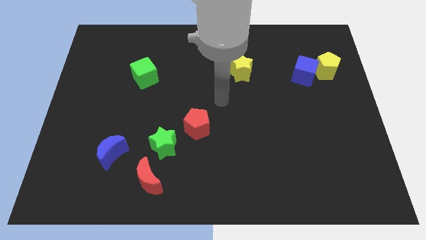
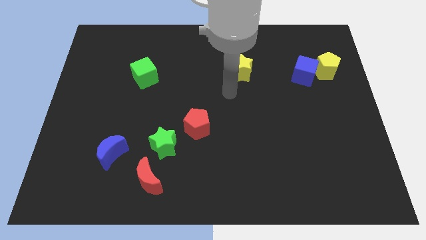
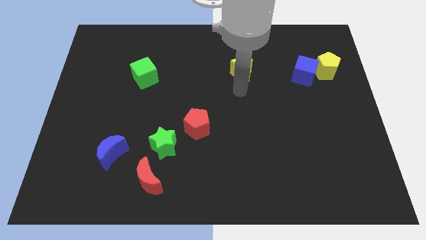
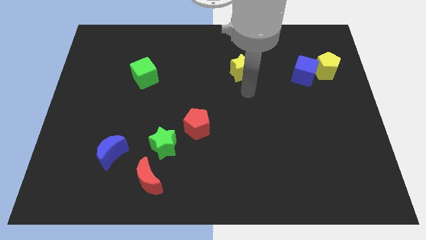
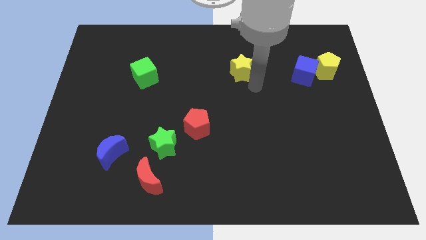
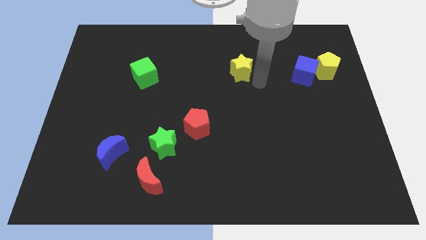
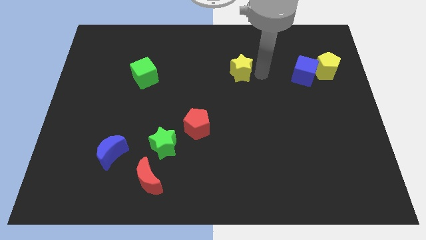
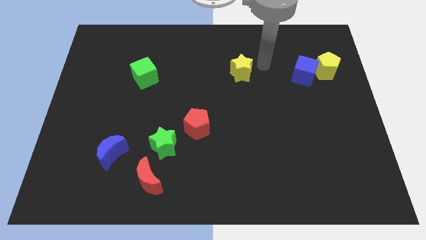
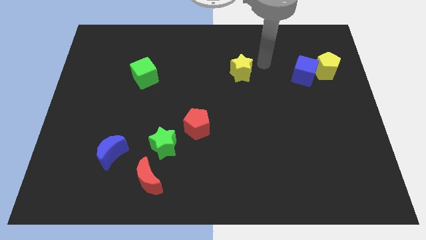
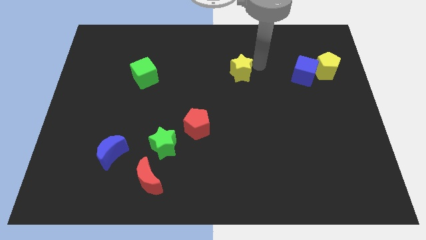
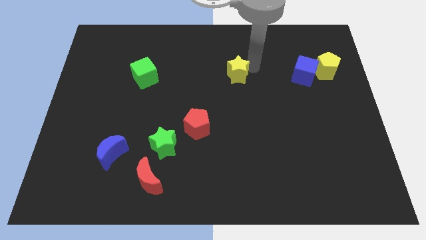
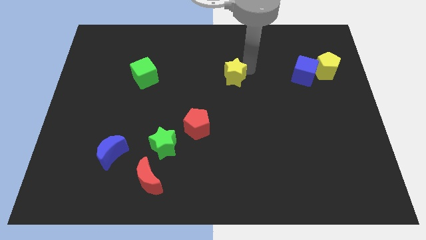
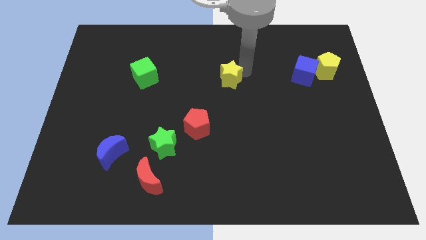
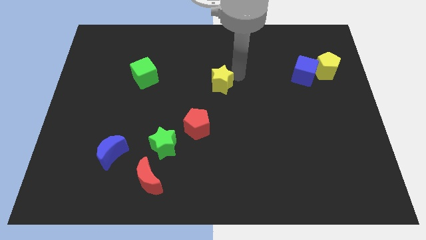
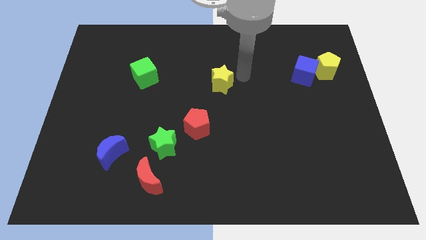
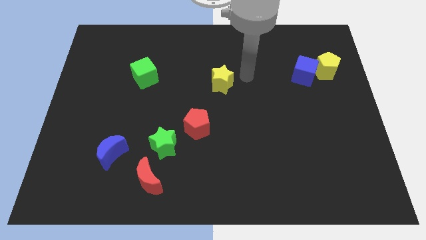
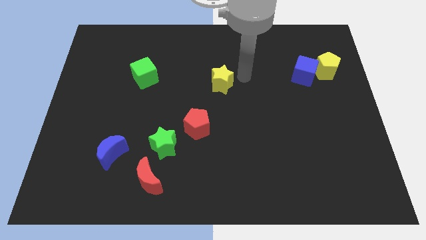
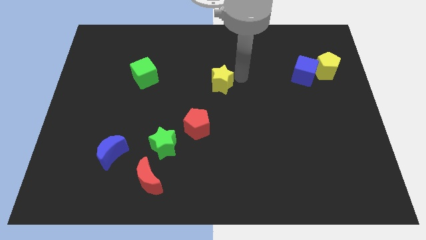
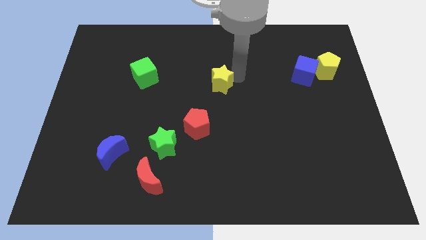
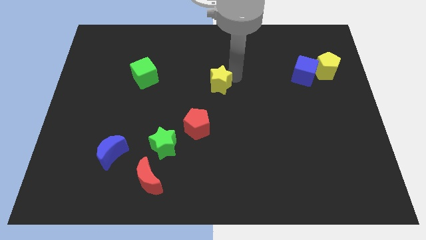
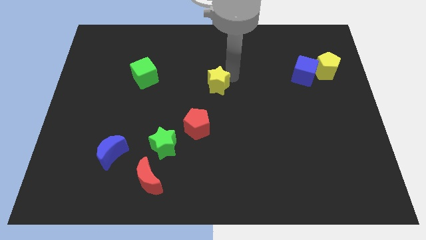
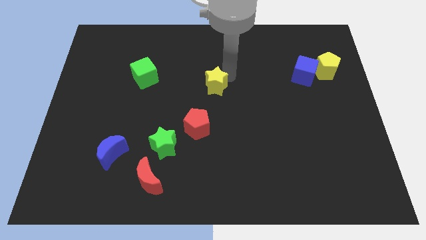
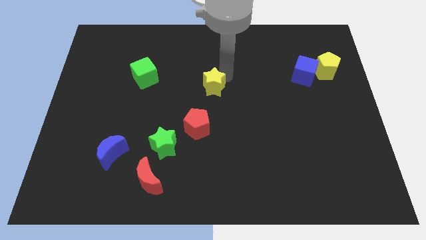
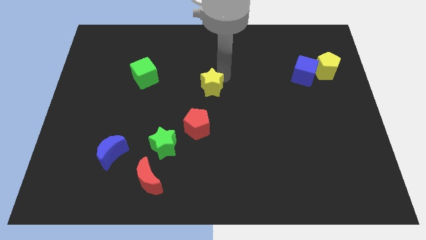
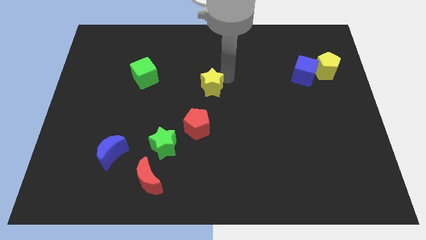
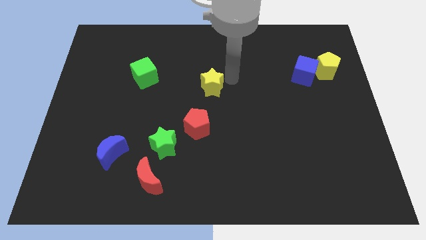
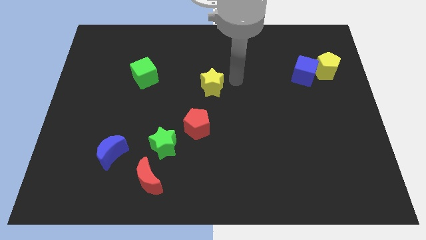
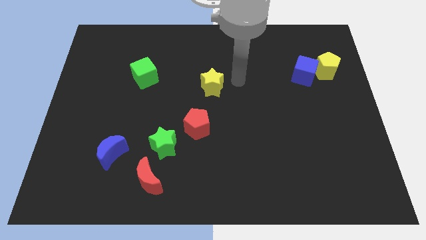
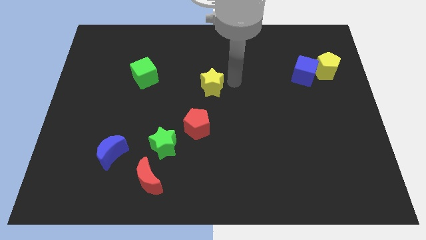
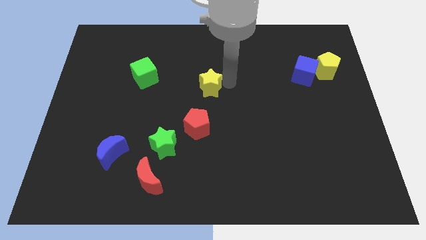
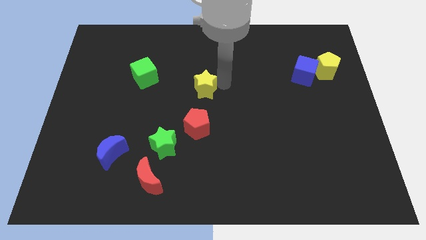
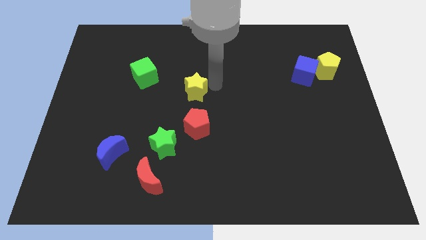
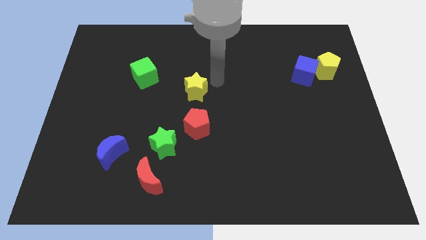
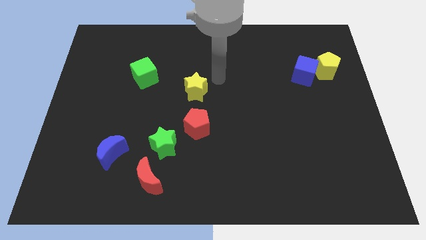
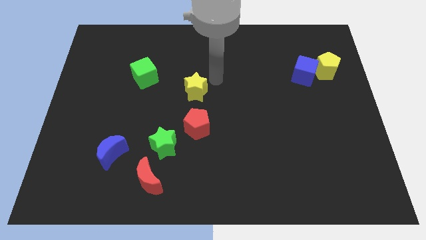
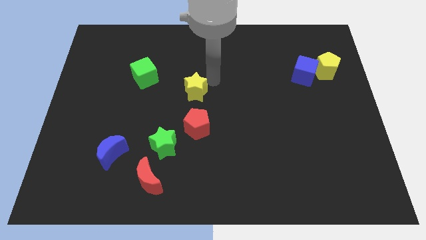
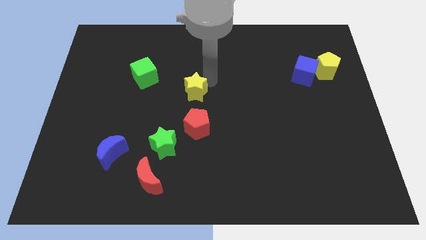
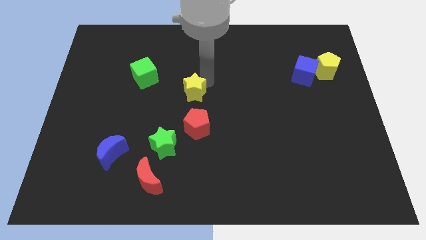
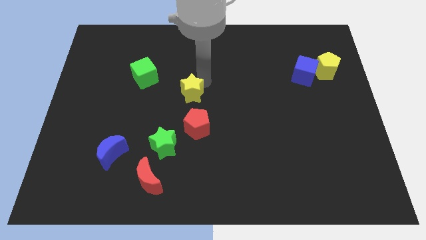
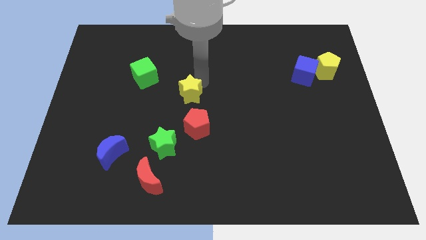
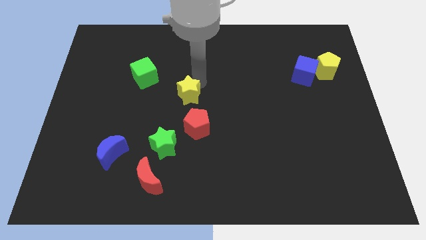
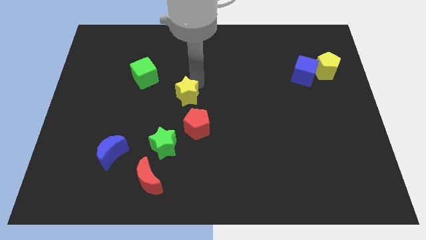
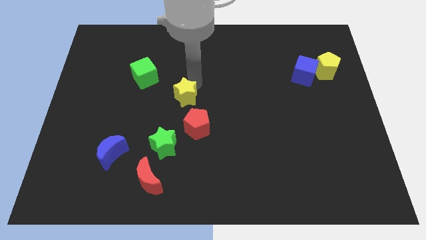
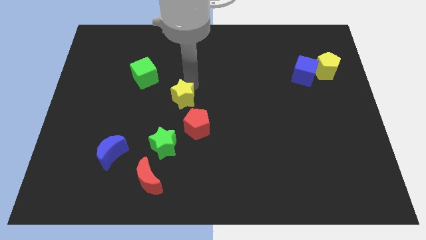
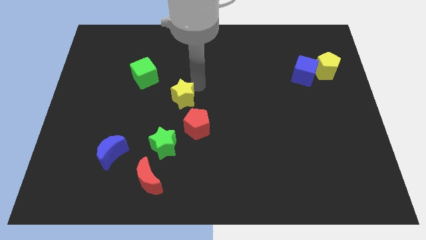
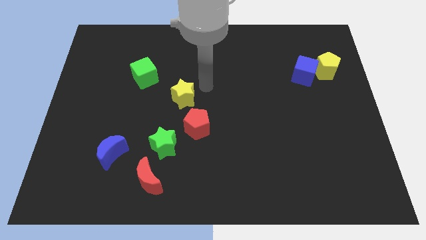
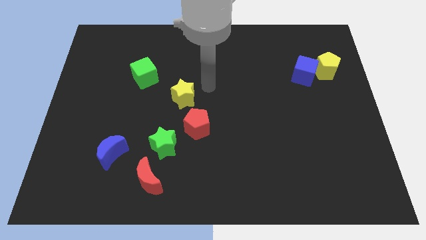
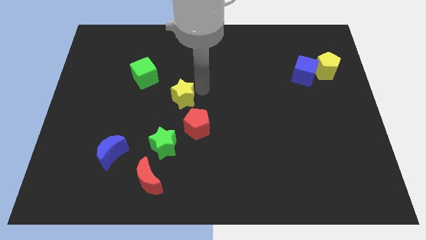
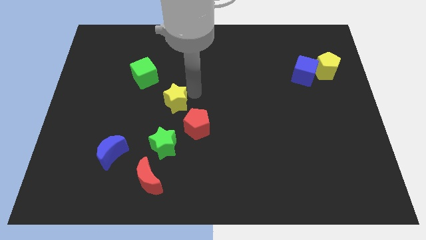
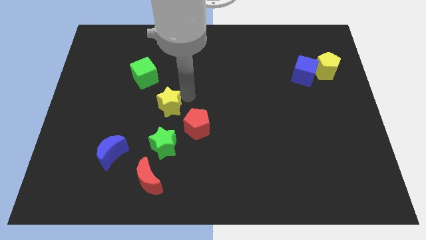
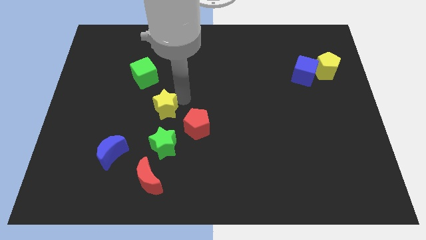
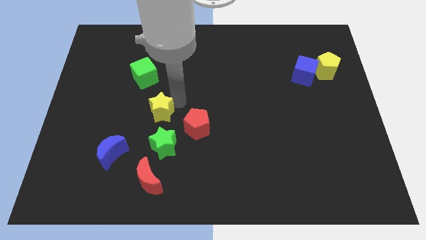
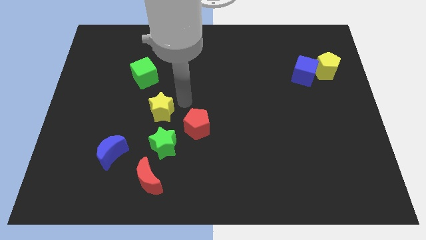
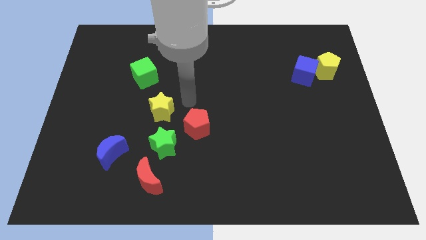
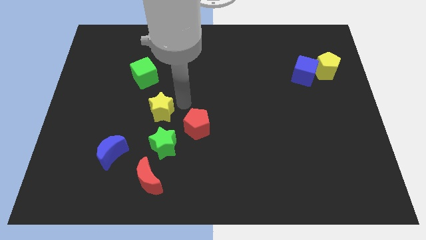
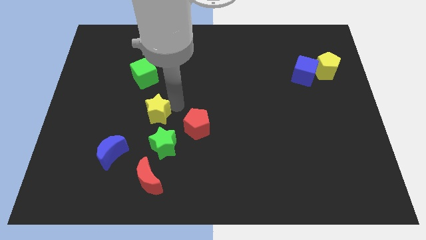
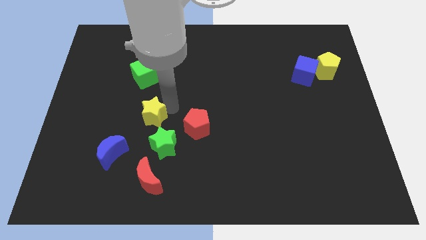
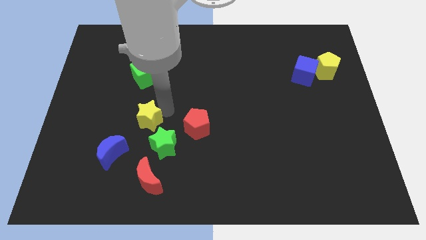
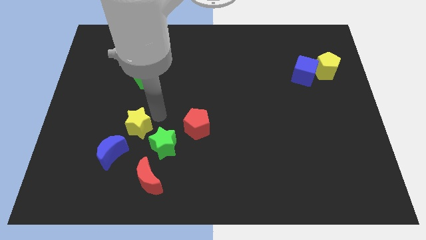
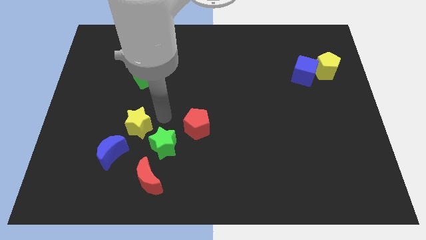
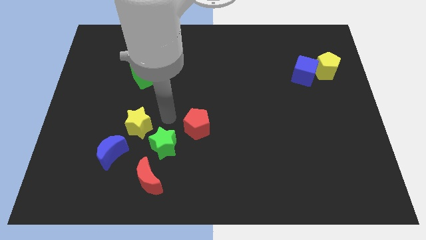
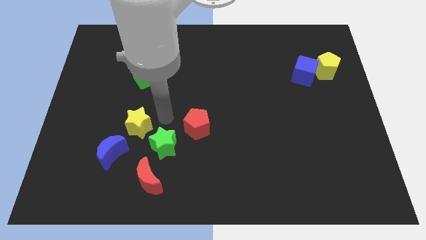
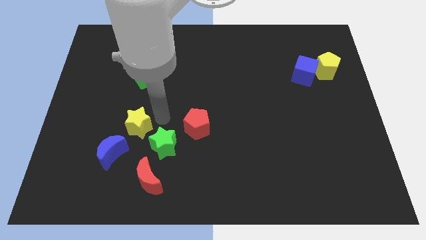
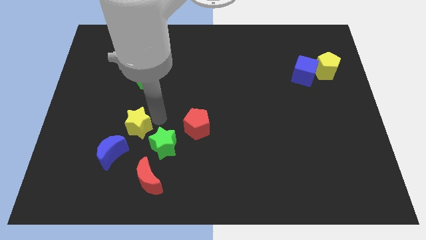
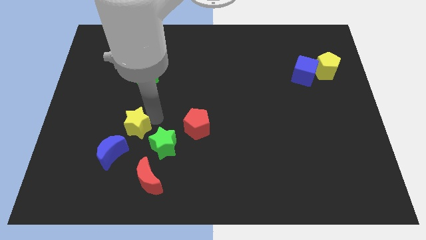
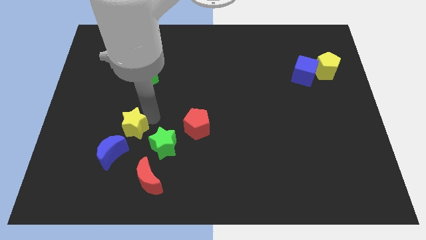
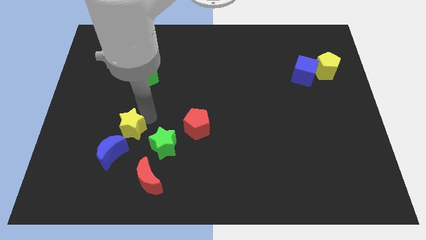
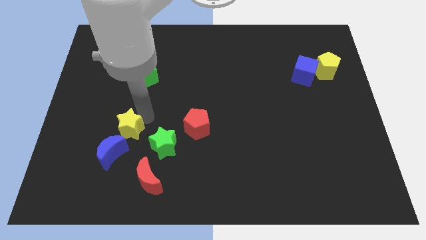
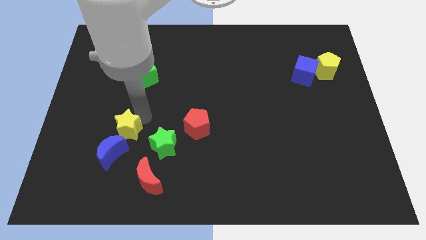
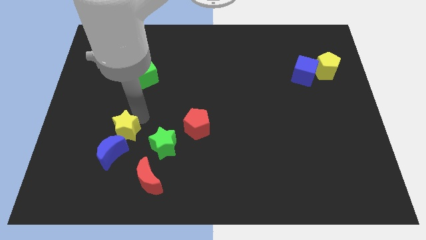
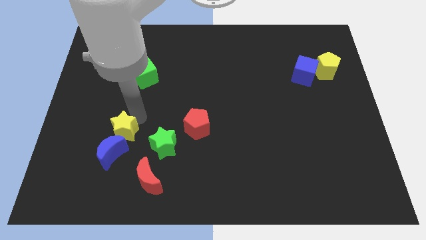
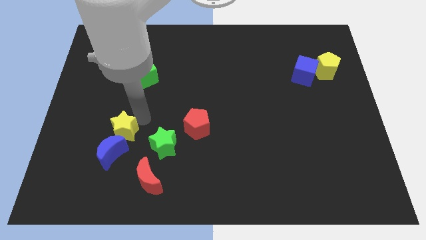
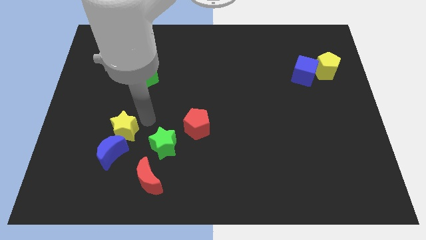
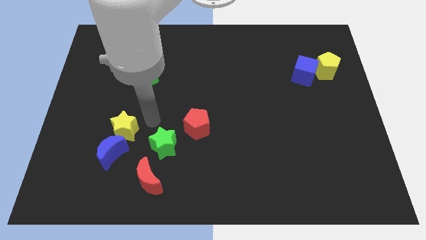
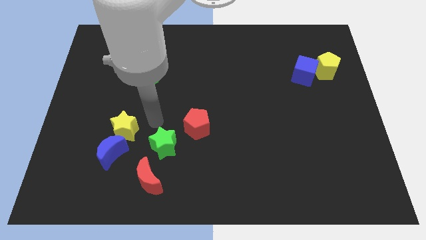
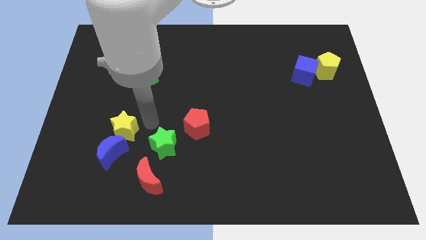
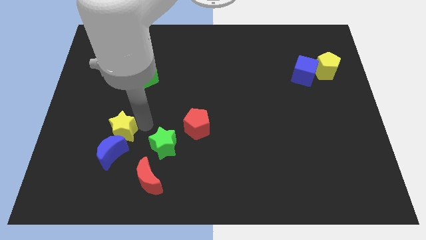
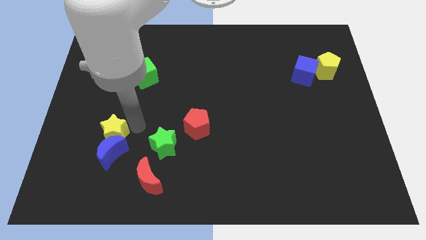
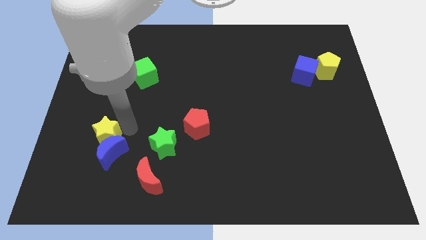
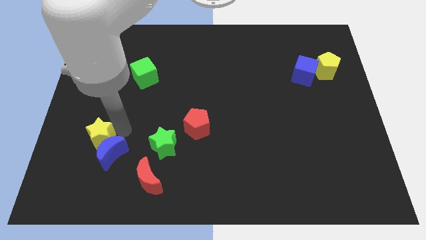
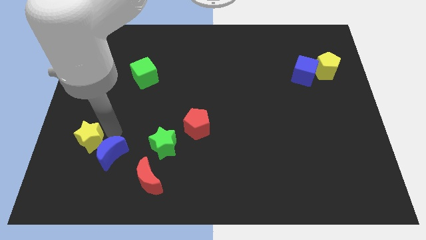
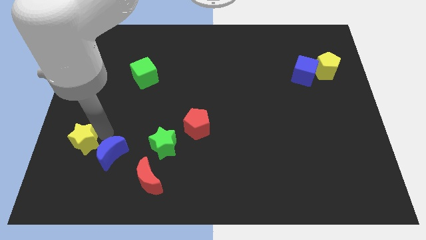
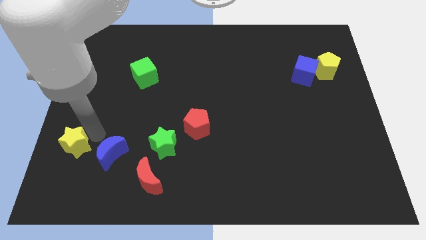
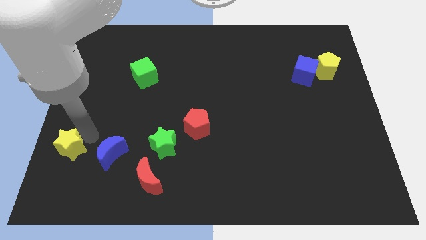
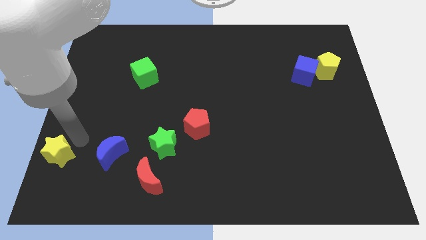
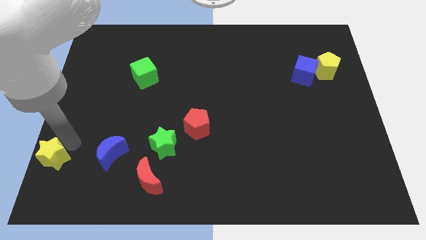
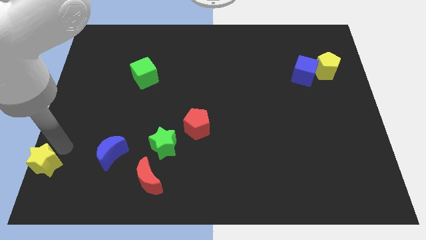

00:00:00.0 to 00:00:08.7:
move the yellow star to the lower left corner
